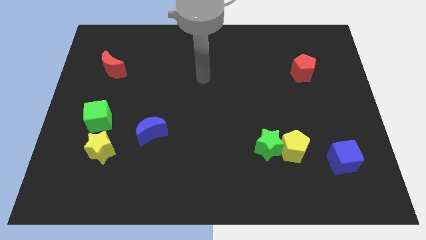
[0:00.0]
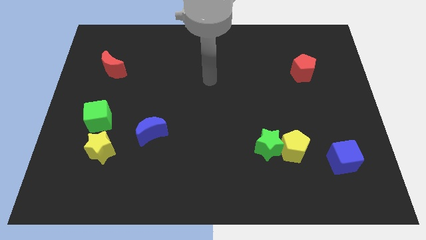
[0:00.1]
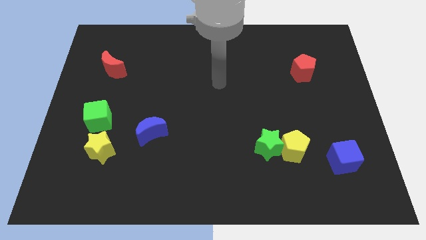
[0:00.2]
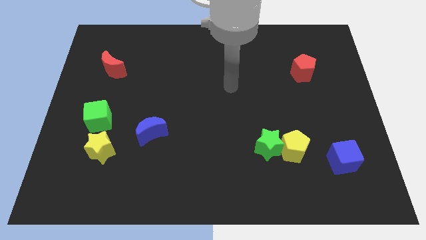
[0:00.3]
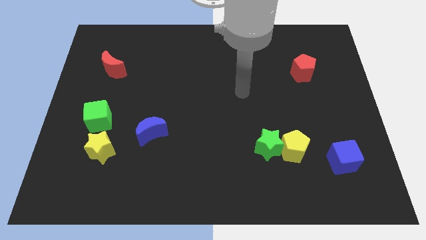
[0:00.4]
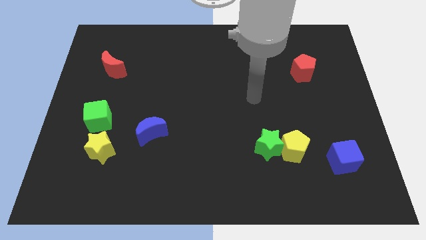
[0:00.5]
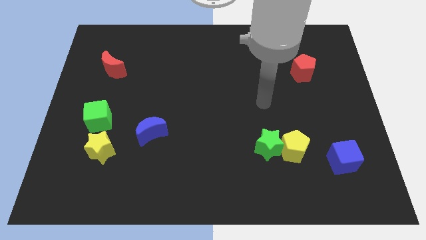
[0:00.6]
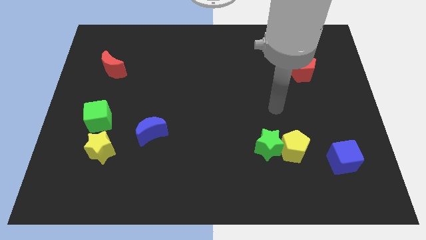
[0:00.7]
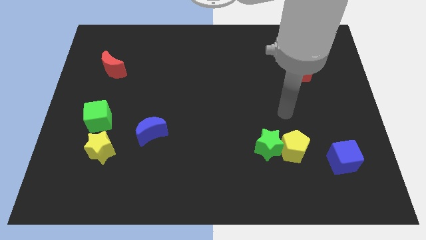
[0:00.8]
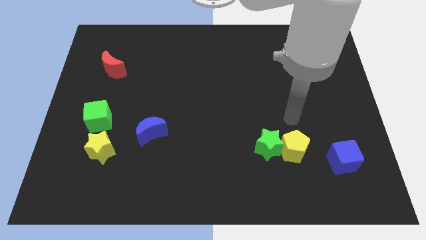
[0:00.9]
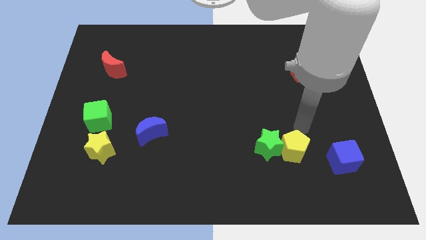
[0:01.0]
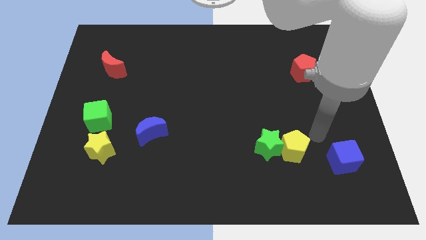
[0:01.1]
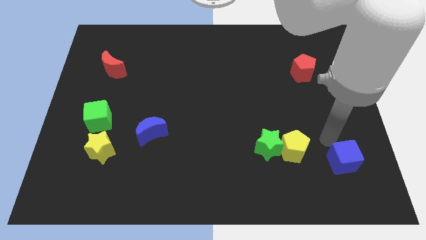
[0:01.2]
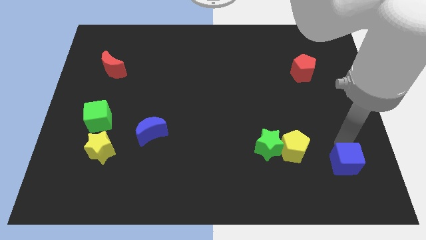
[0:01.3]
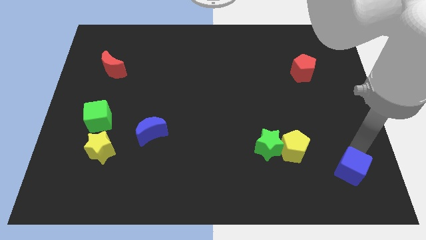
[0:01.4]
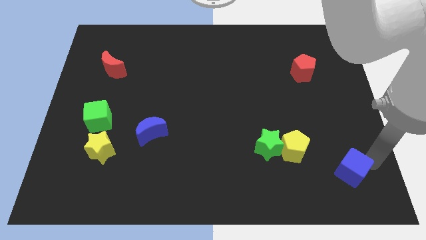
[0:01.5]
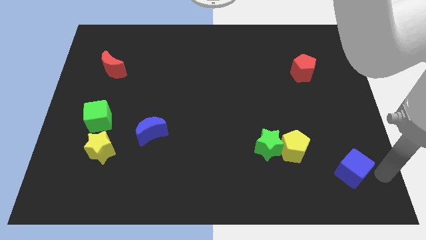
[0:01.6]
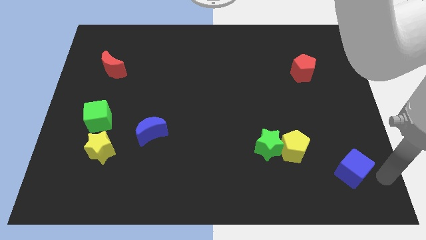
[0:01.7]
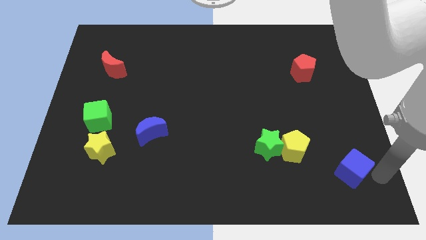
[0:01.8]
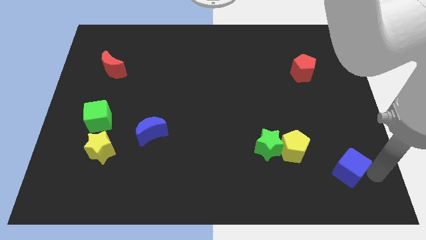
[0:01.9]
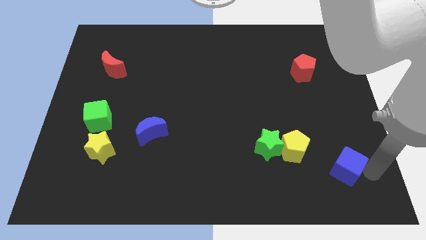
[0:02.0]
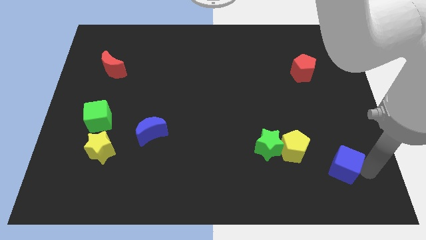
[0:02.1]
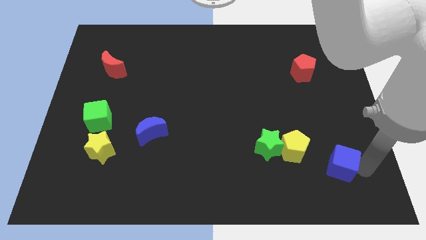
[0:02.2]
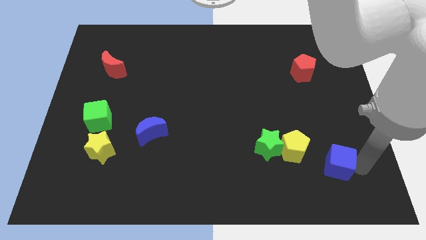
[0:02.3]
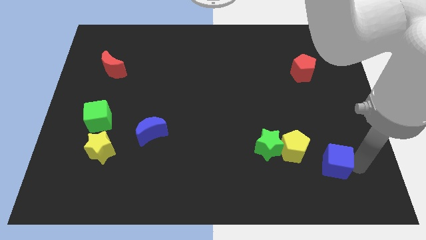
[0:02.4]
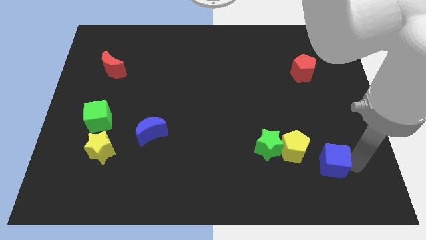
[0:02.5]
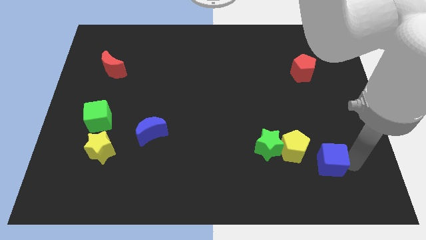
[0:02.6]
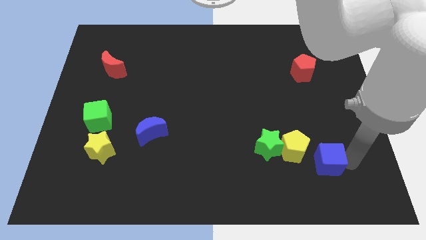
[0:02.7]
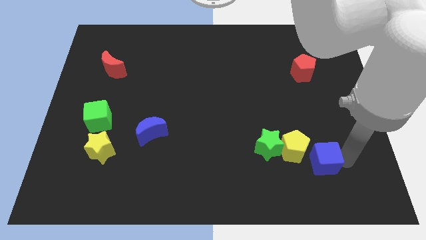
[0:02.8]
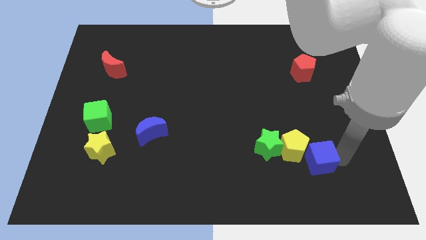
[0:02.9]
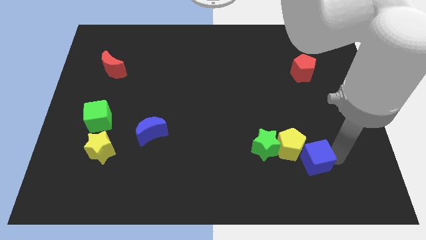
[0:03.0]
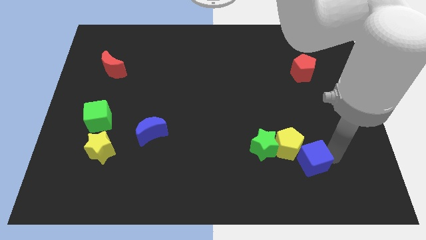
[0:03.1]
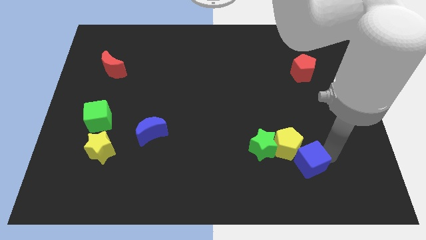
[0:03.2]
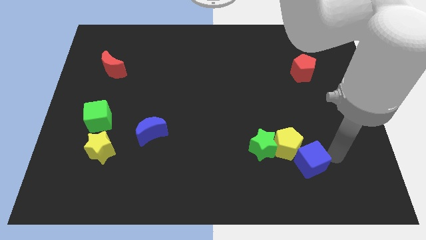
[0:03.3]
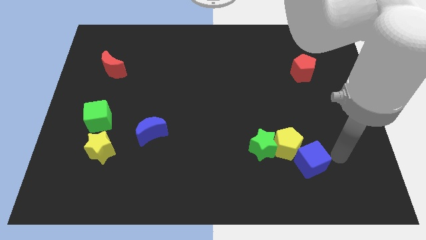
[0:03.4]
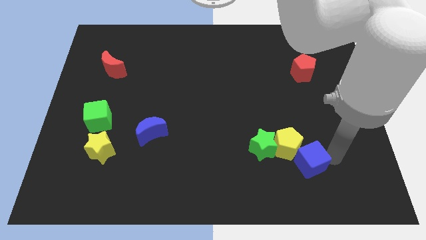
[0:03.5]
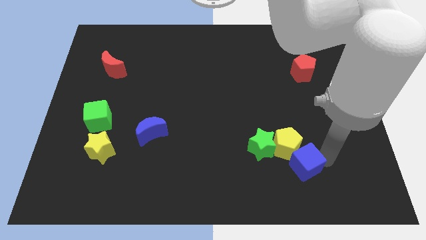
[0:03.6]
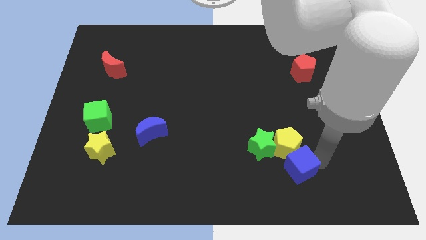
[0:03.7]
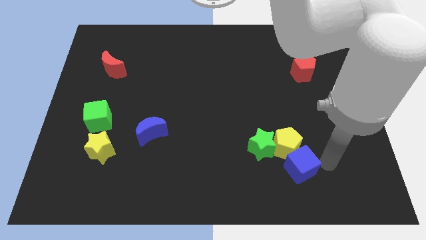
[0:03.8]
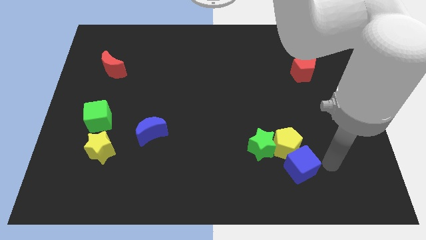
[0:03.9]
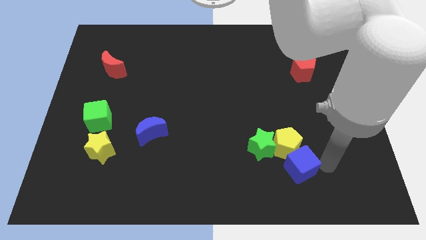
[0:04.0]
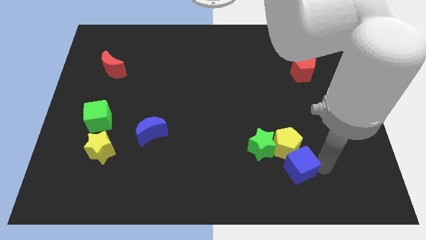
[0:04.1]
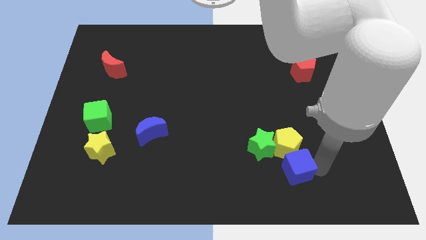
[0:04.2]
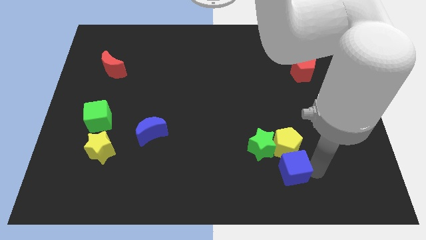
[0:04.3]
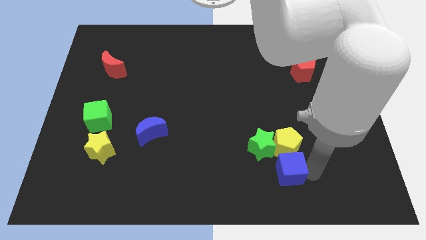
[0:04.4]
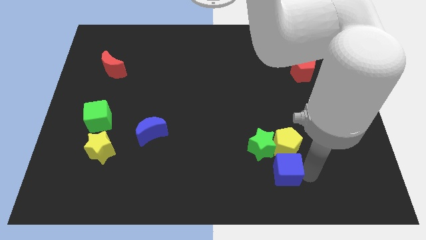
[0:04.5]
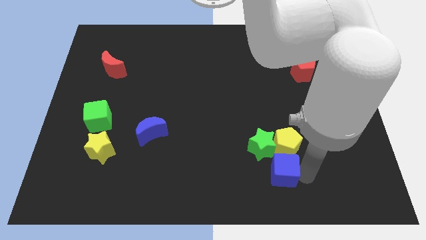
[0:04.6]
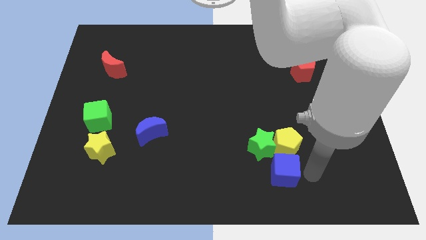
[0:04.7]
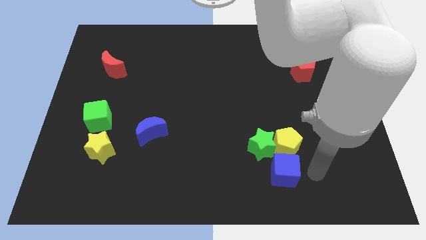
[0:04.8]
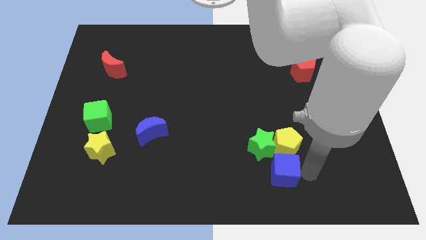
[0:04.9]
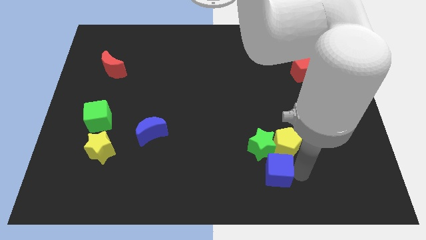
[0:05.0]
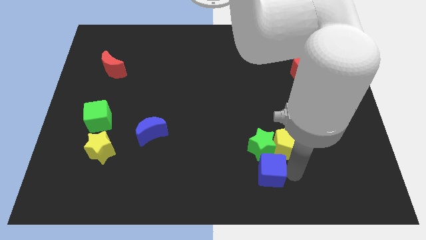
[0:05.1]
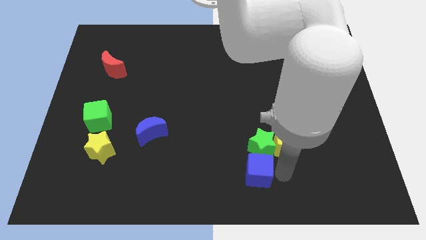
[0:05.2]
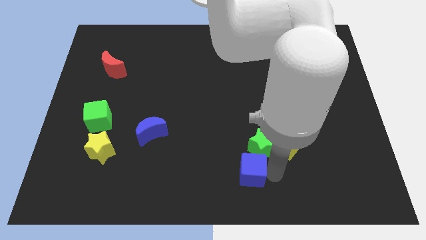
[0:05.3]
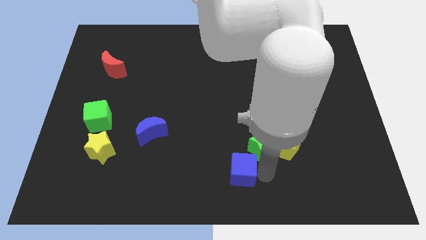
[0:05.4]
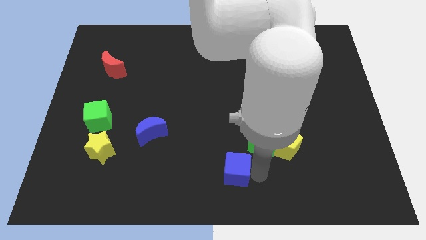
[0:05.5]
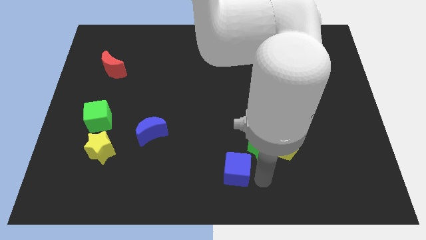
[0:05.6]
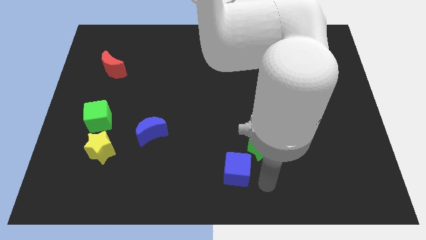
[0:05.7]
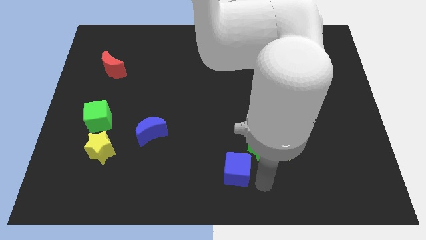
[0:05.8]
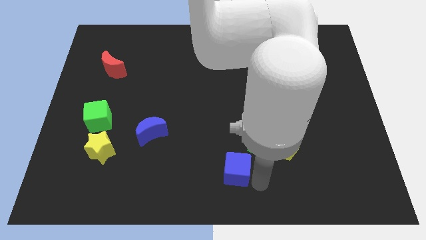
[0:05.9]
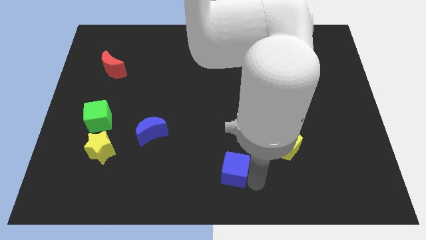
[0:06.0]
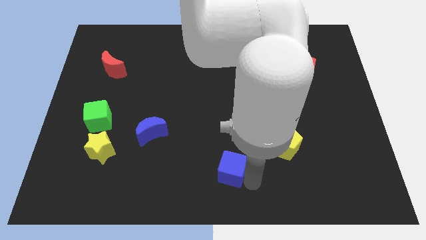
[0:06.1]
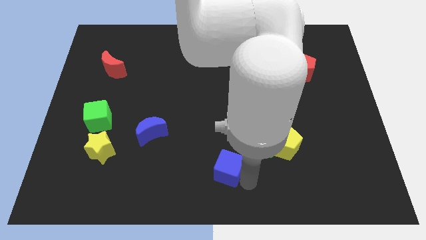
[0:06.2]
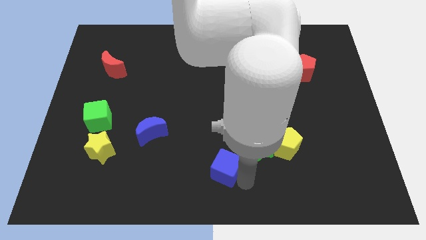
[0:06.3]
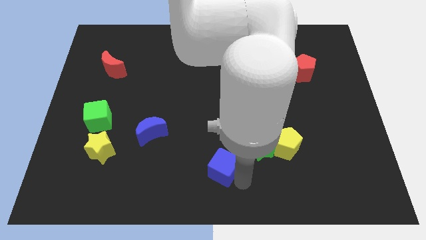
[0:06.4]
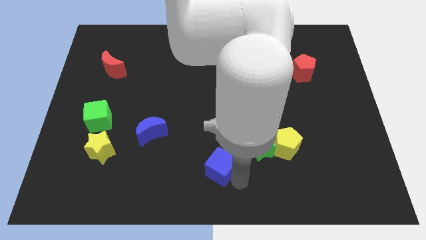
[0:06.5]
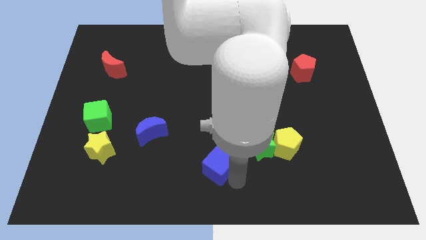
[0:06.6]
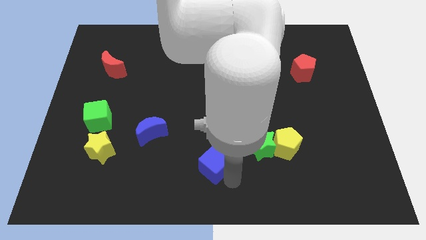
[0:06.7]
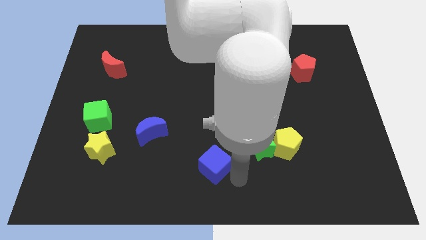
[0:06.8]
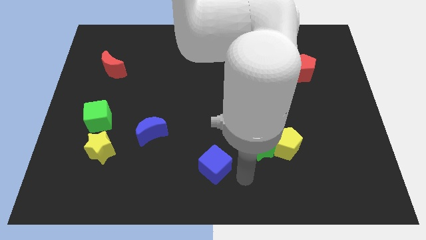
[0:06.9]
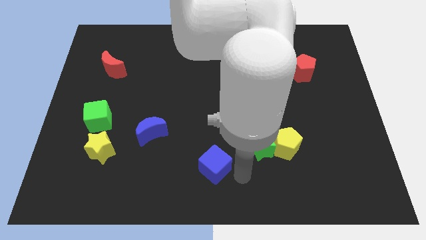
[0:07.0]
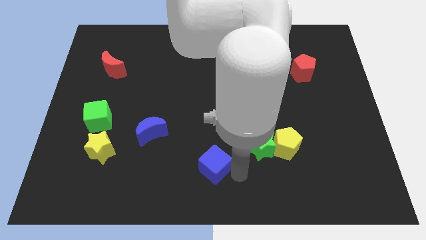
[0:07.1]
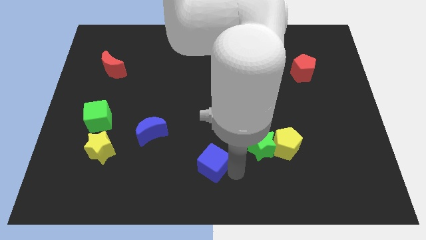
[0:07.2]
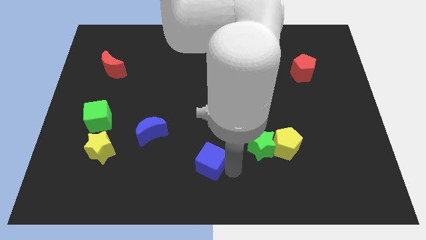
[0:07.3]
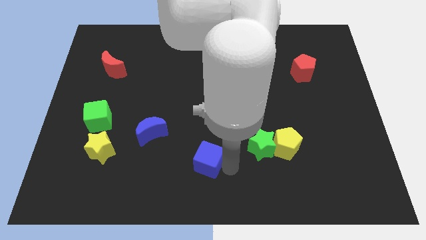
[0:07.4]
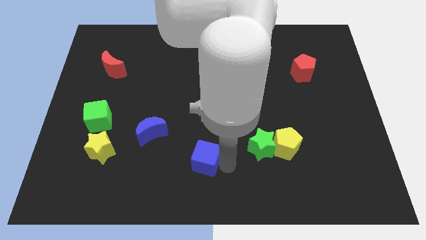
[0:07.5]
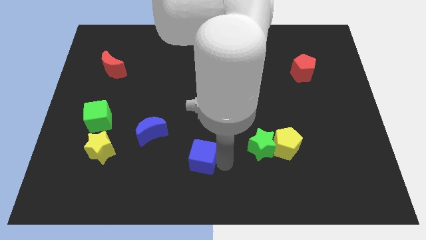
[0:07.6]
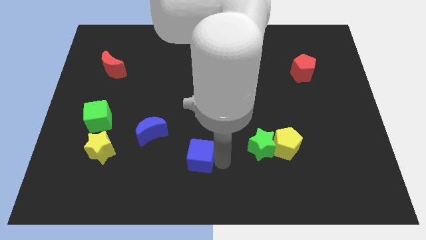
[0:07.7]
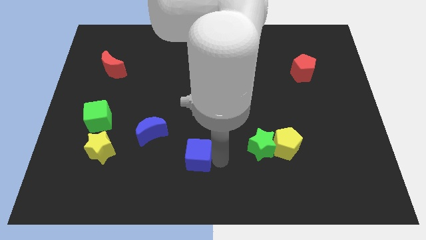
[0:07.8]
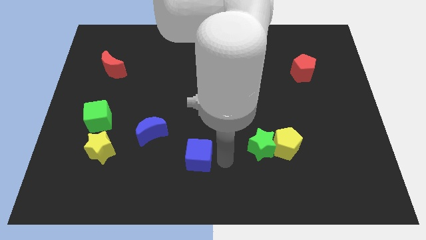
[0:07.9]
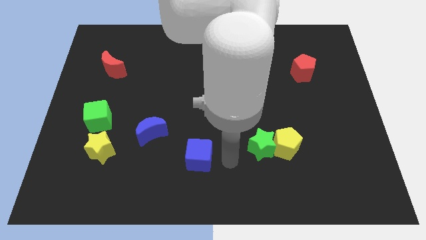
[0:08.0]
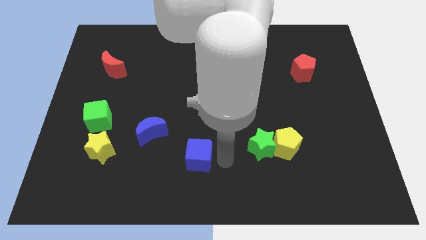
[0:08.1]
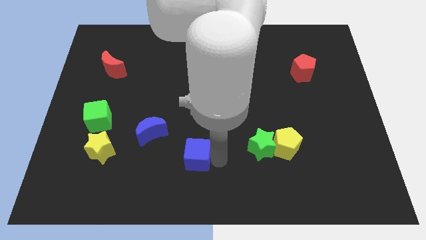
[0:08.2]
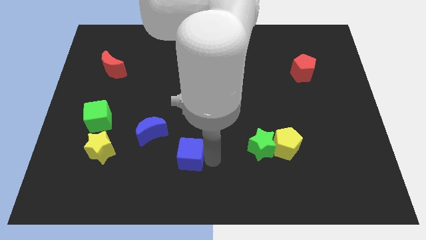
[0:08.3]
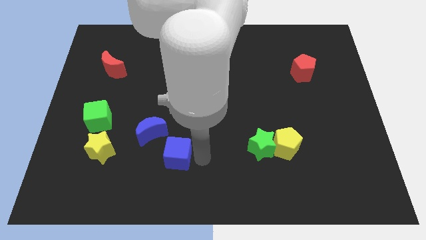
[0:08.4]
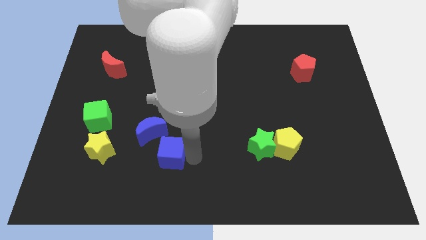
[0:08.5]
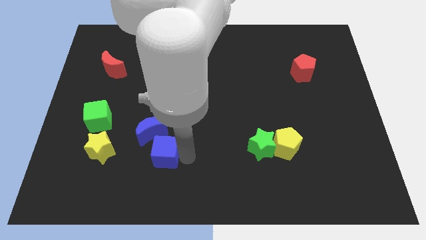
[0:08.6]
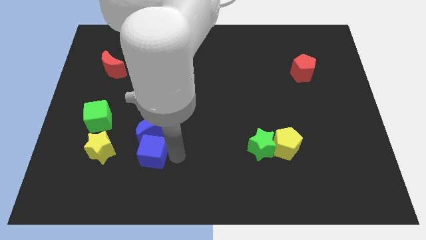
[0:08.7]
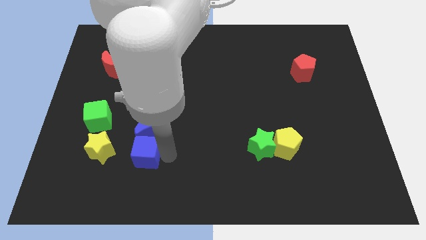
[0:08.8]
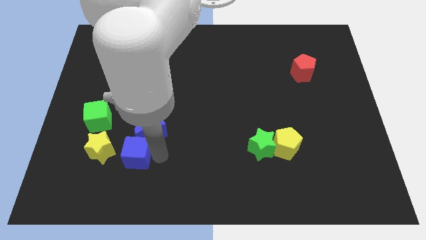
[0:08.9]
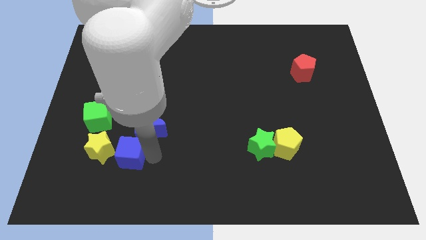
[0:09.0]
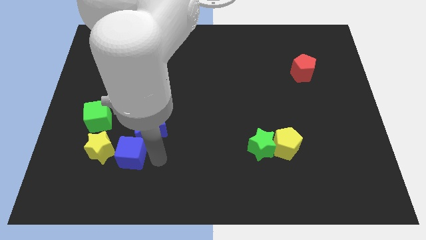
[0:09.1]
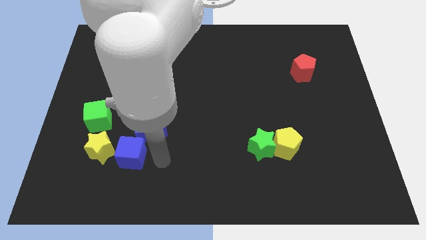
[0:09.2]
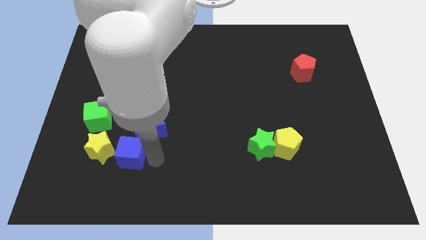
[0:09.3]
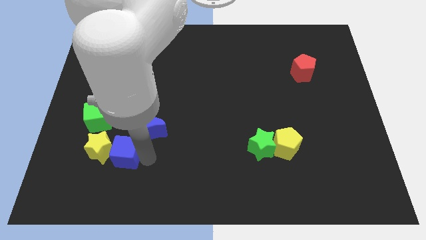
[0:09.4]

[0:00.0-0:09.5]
move the blue cube next to the yellow star
